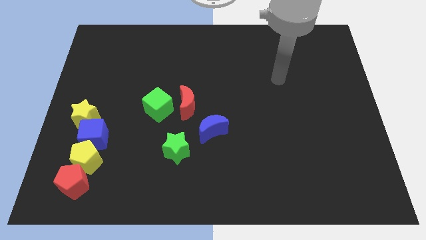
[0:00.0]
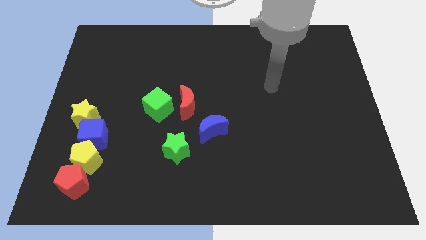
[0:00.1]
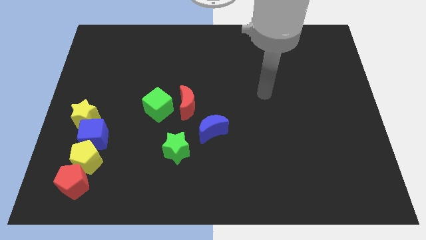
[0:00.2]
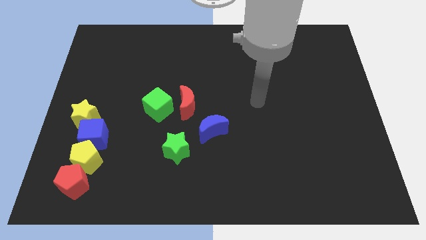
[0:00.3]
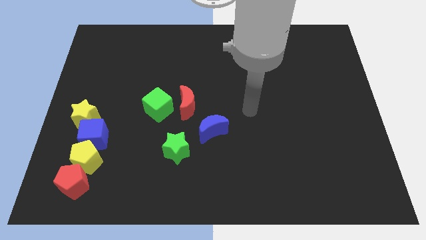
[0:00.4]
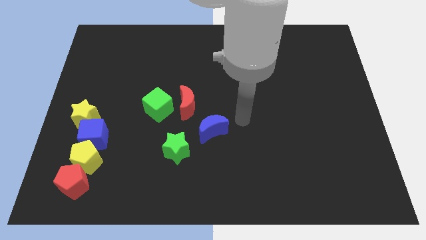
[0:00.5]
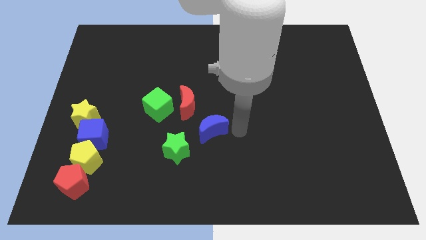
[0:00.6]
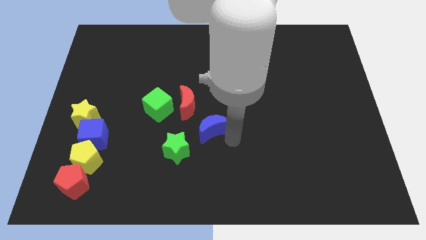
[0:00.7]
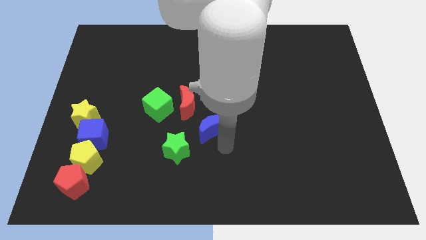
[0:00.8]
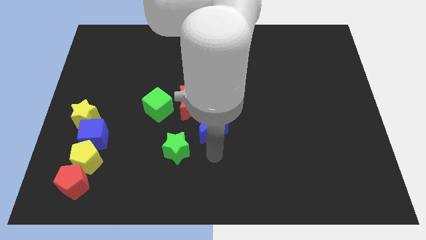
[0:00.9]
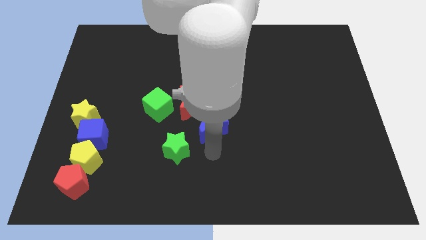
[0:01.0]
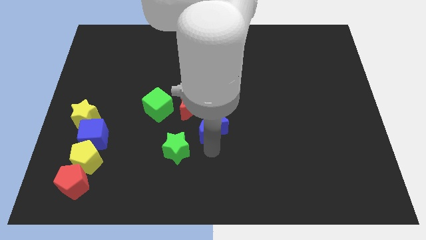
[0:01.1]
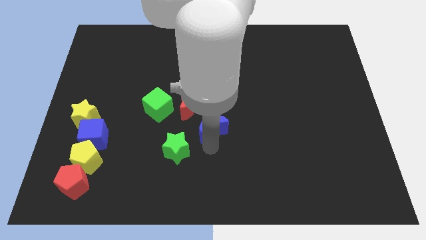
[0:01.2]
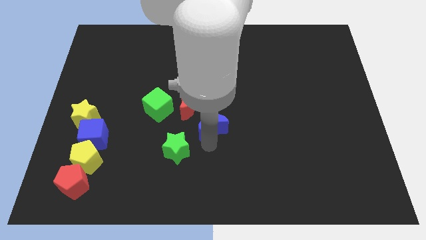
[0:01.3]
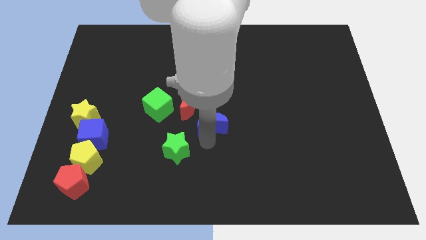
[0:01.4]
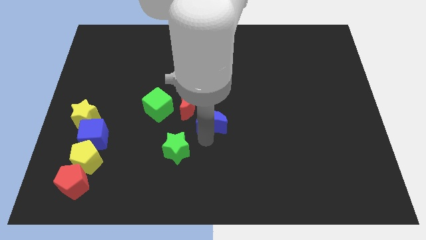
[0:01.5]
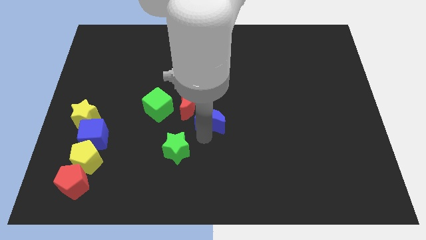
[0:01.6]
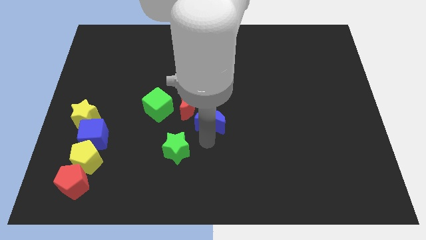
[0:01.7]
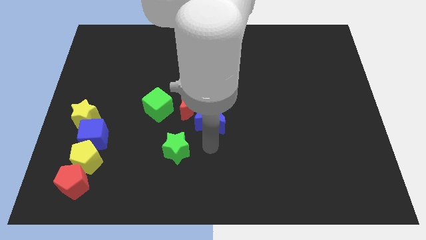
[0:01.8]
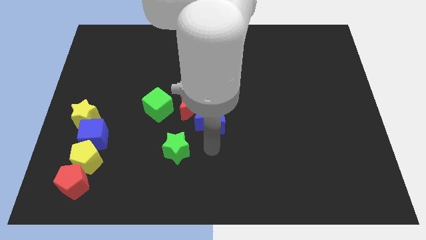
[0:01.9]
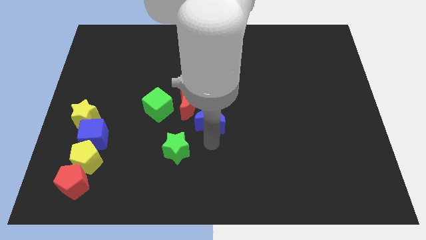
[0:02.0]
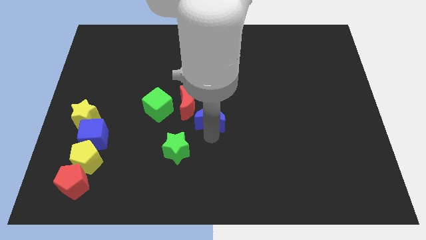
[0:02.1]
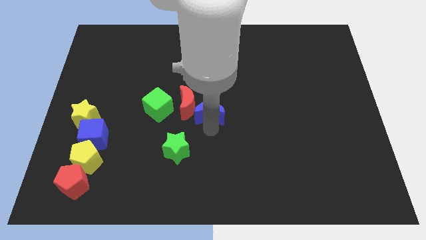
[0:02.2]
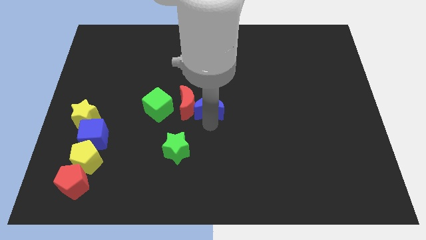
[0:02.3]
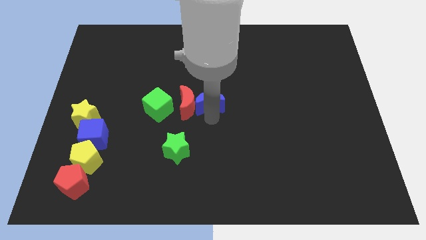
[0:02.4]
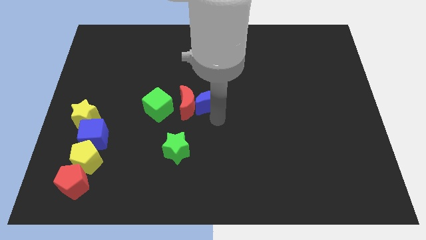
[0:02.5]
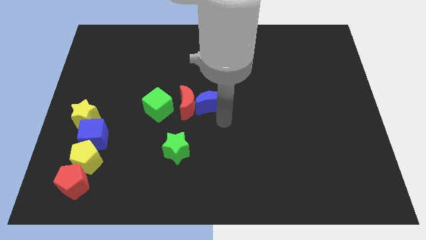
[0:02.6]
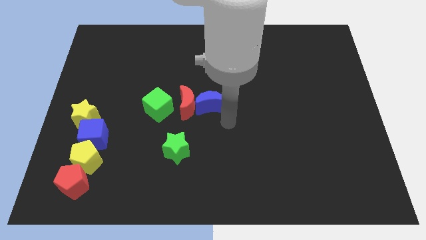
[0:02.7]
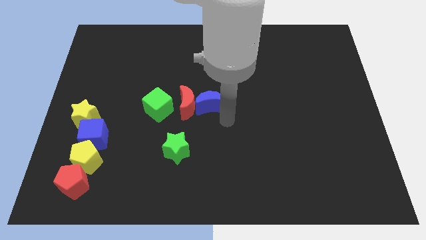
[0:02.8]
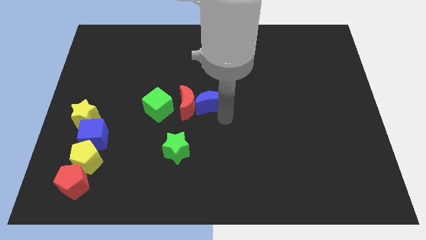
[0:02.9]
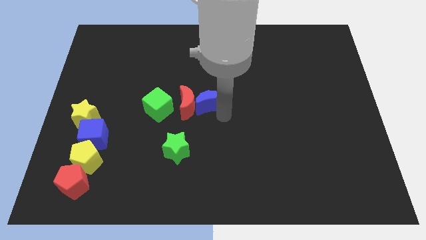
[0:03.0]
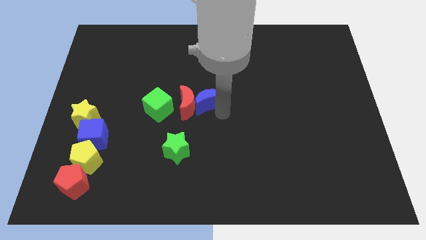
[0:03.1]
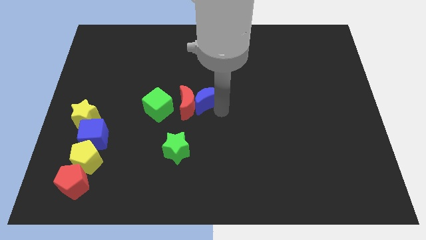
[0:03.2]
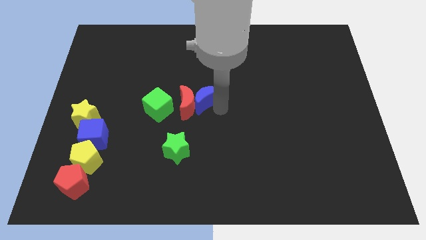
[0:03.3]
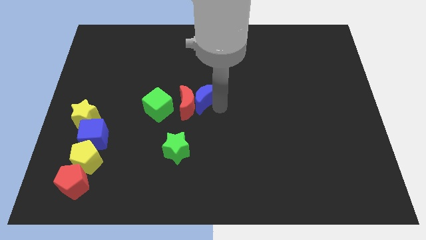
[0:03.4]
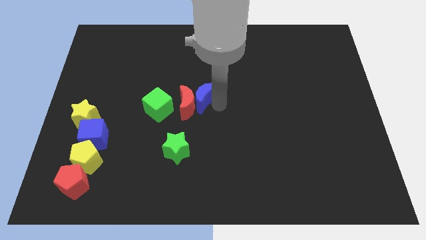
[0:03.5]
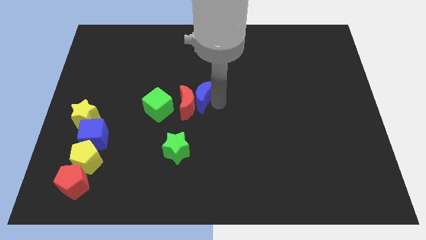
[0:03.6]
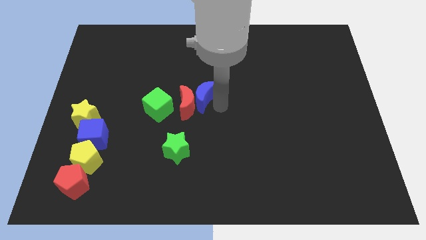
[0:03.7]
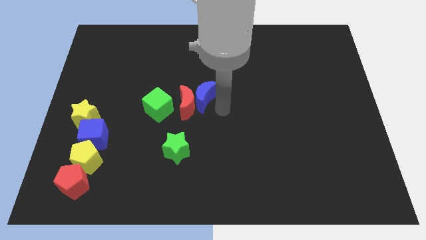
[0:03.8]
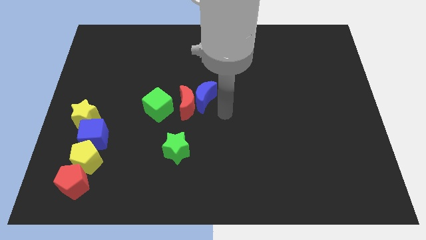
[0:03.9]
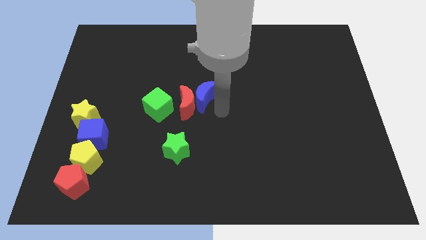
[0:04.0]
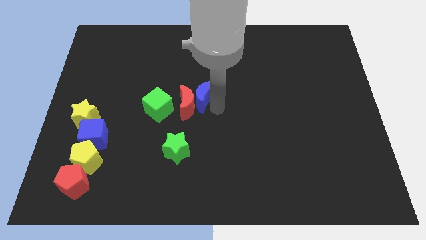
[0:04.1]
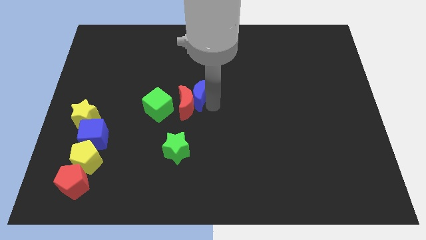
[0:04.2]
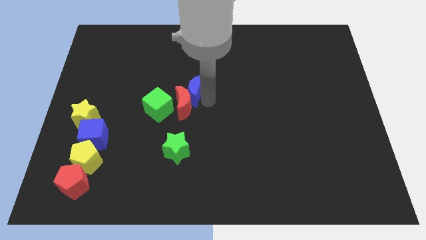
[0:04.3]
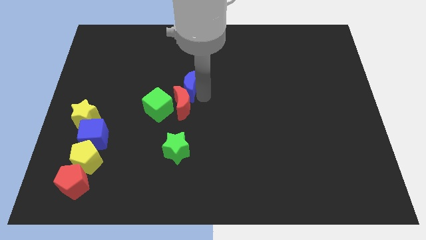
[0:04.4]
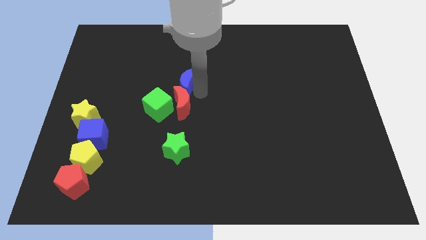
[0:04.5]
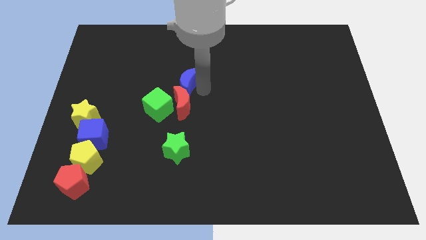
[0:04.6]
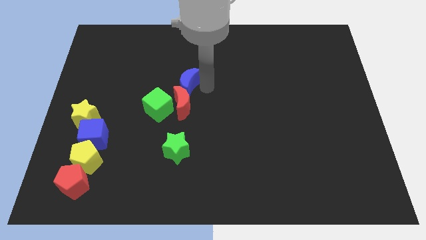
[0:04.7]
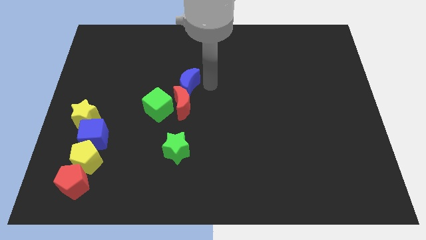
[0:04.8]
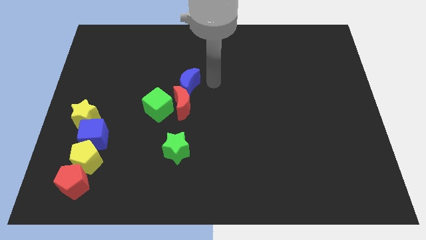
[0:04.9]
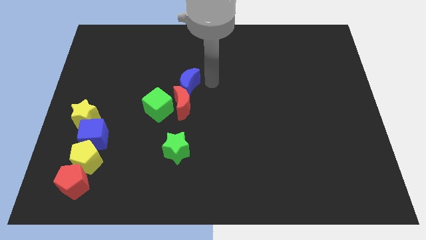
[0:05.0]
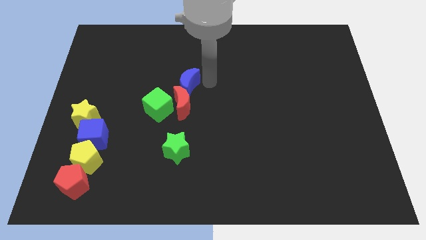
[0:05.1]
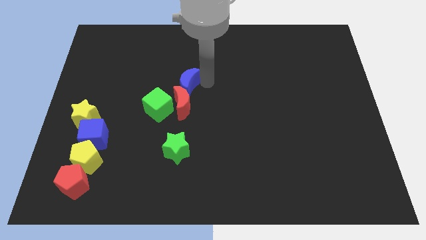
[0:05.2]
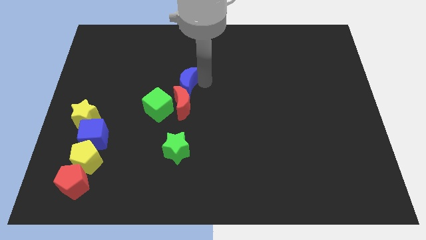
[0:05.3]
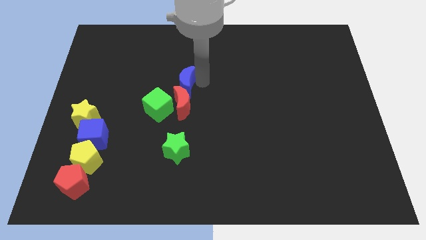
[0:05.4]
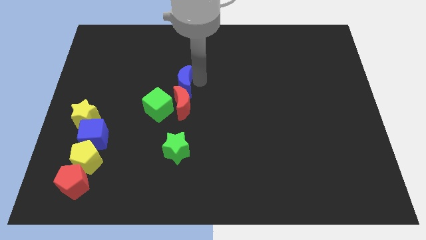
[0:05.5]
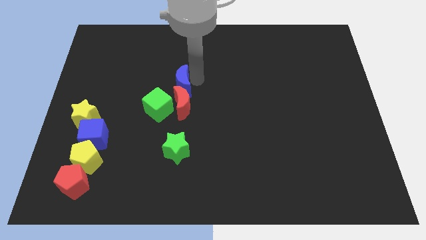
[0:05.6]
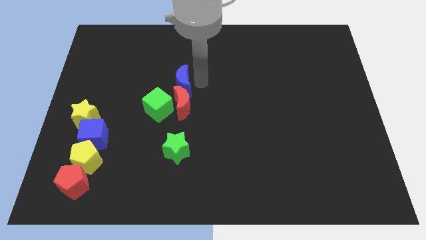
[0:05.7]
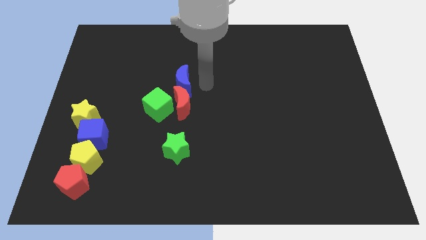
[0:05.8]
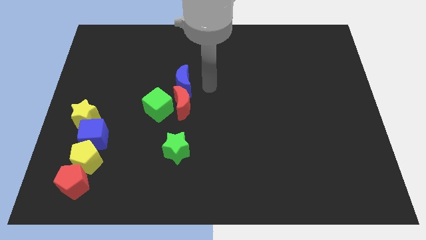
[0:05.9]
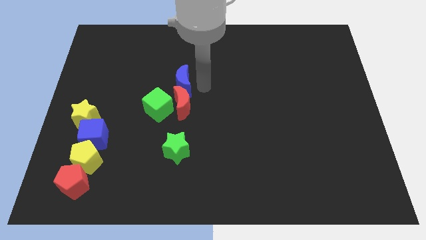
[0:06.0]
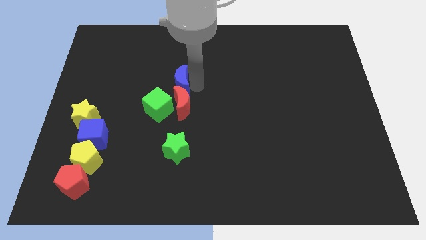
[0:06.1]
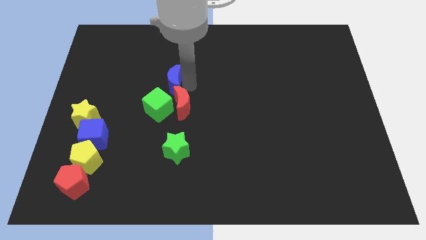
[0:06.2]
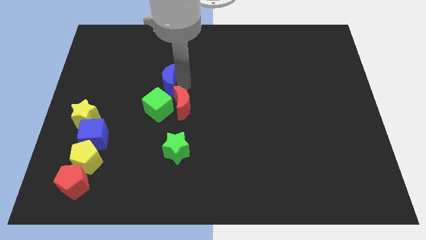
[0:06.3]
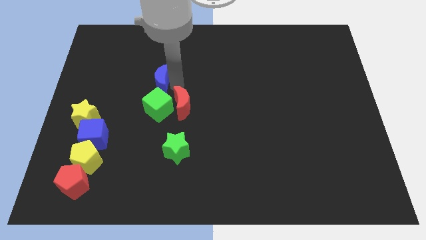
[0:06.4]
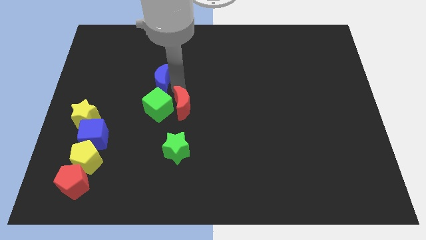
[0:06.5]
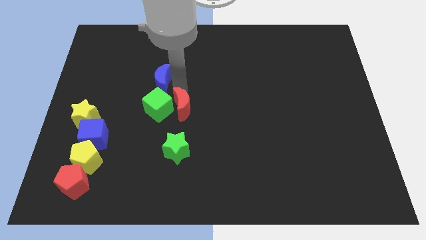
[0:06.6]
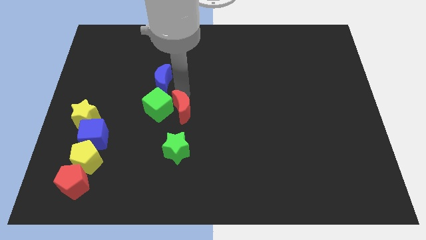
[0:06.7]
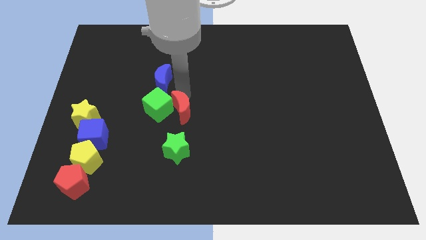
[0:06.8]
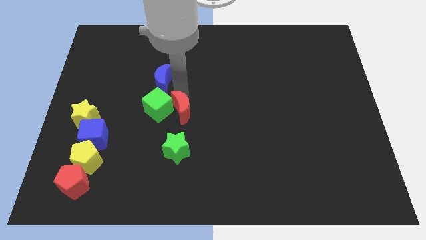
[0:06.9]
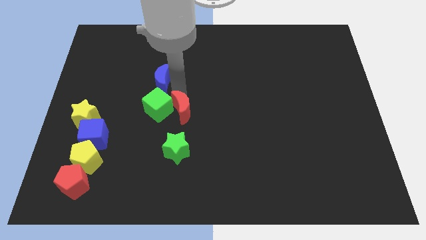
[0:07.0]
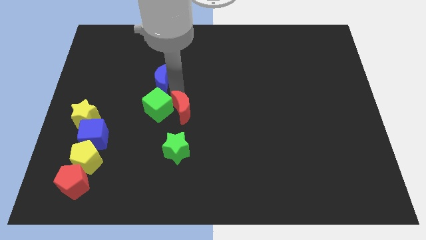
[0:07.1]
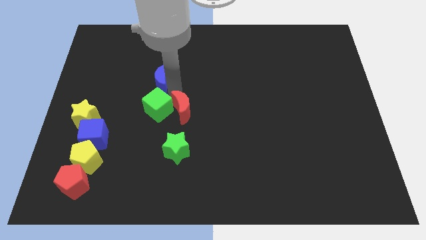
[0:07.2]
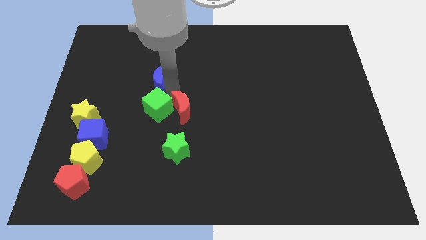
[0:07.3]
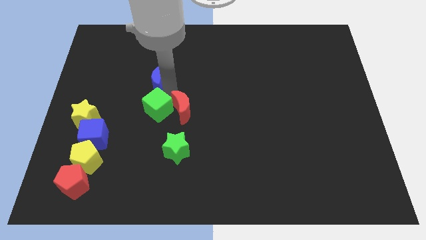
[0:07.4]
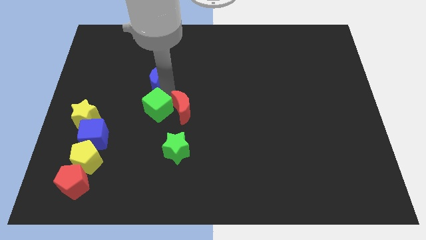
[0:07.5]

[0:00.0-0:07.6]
move the blue moon upwards and then left

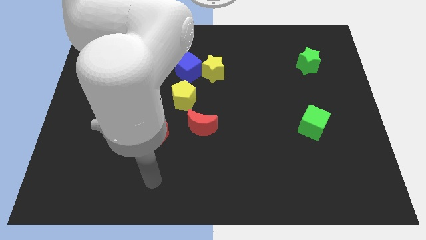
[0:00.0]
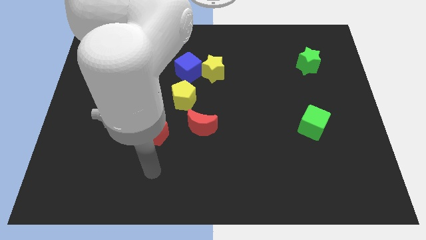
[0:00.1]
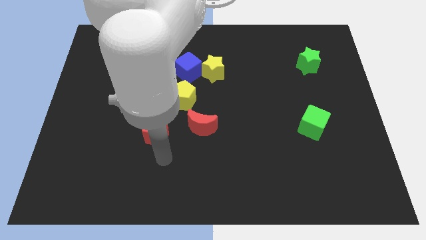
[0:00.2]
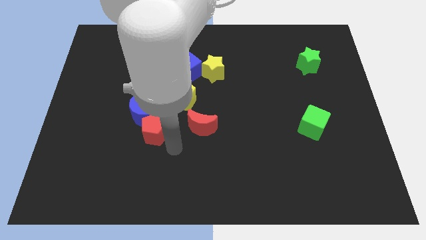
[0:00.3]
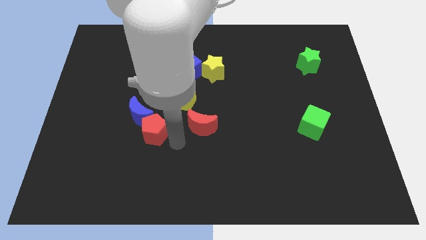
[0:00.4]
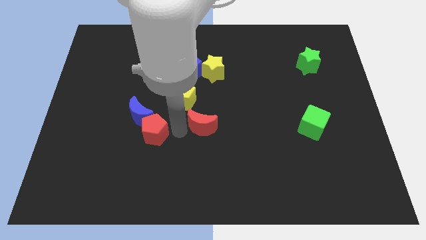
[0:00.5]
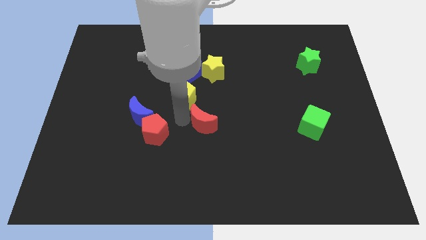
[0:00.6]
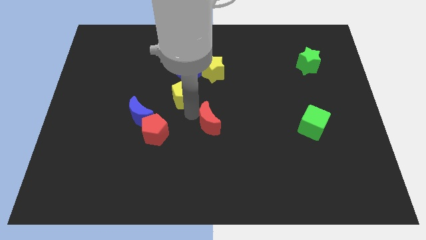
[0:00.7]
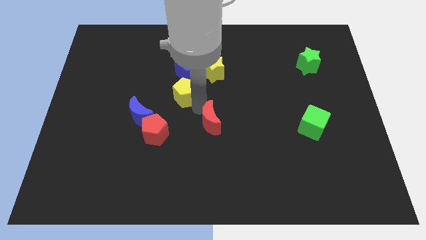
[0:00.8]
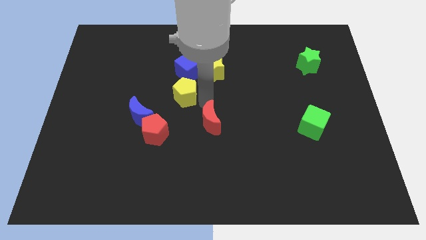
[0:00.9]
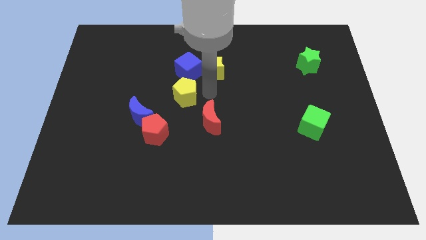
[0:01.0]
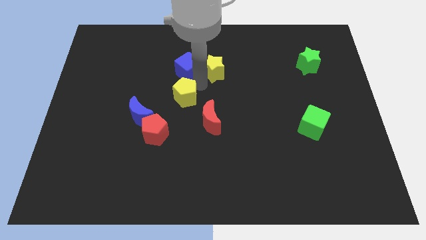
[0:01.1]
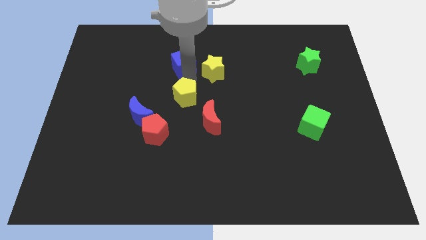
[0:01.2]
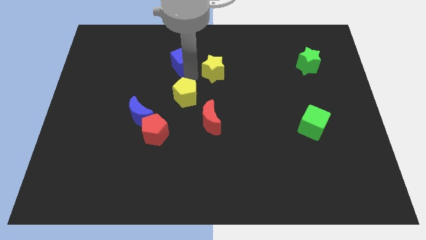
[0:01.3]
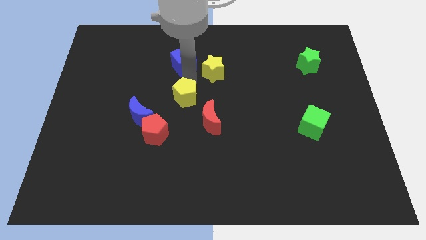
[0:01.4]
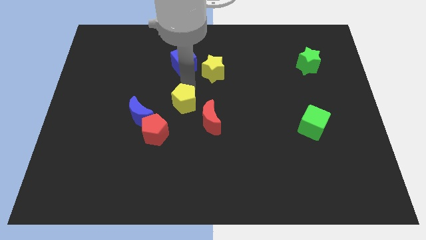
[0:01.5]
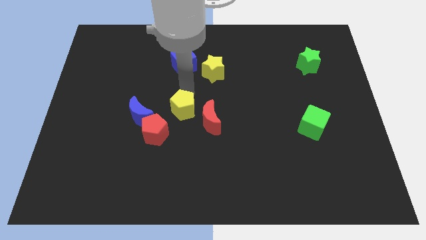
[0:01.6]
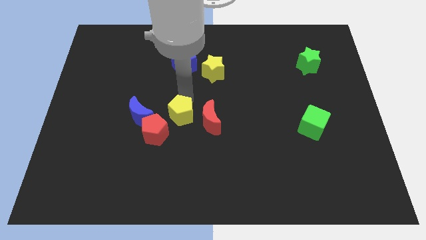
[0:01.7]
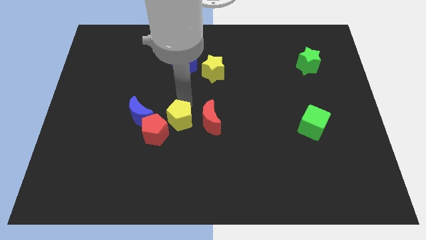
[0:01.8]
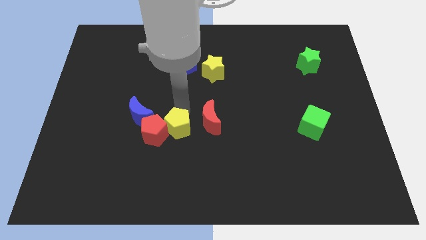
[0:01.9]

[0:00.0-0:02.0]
slightly move the yellow pentagon down
